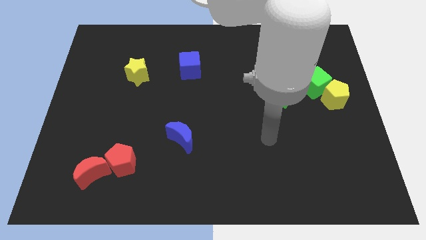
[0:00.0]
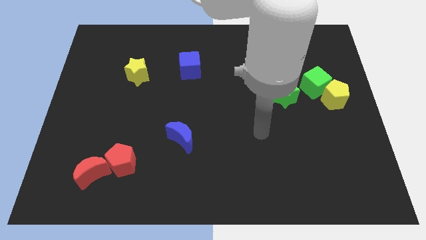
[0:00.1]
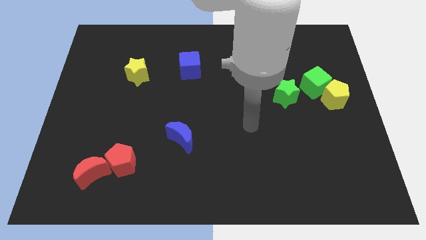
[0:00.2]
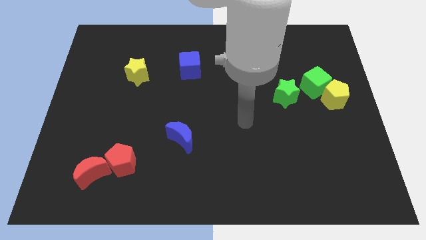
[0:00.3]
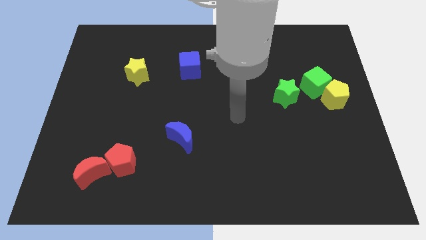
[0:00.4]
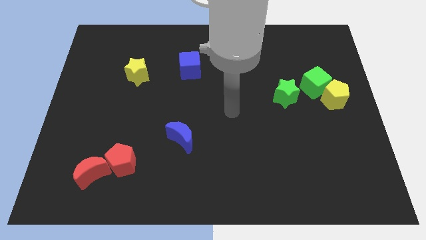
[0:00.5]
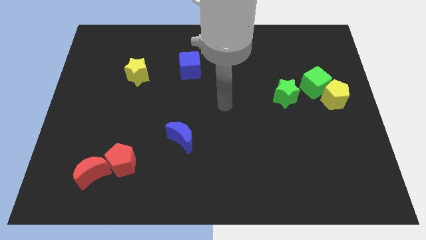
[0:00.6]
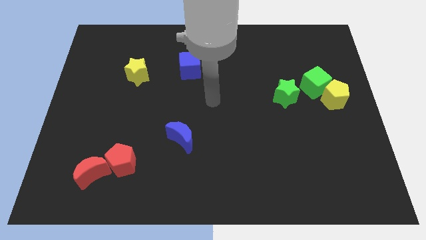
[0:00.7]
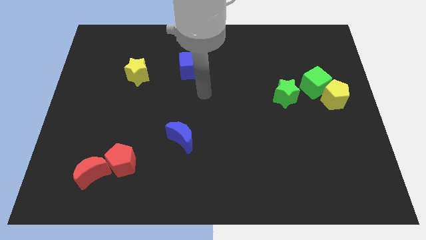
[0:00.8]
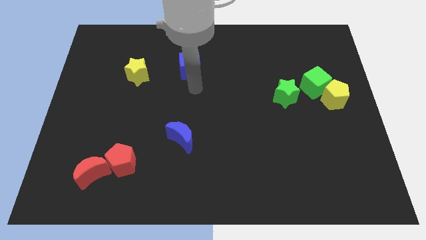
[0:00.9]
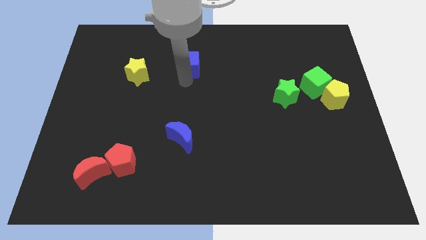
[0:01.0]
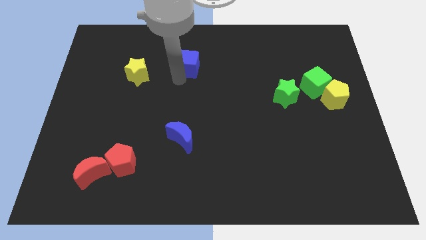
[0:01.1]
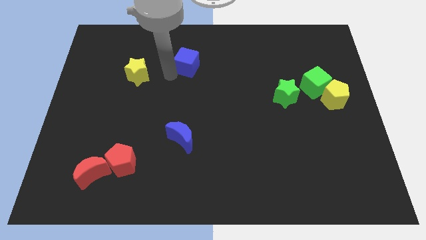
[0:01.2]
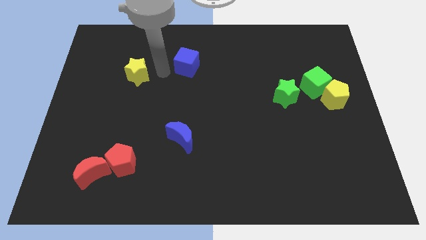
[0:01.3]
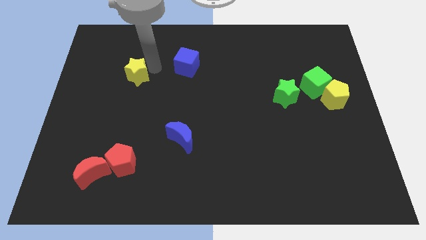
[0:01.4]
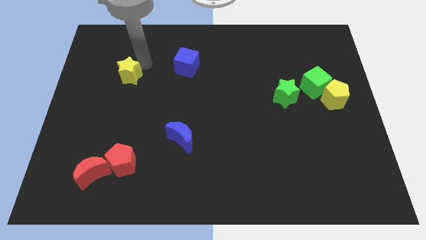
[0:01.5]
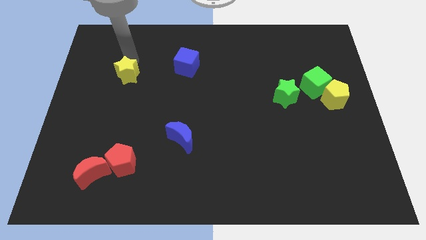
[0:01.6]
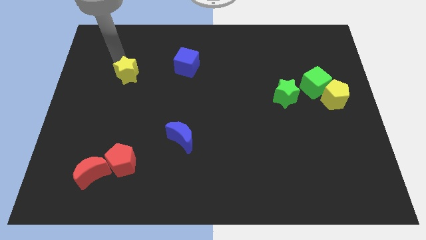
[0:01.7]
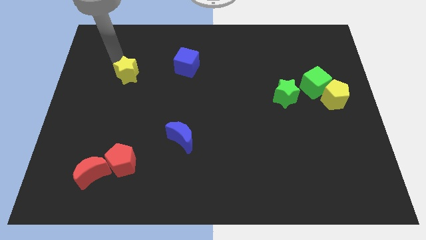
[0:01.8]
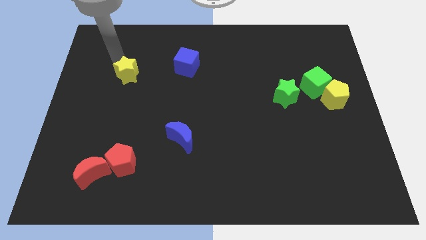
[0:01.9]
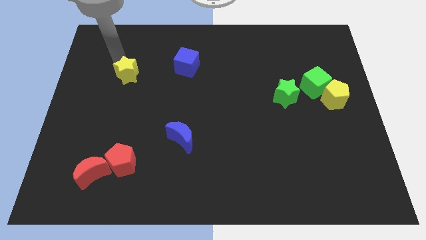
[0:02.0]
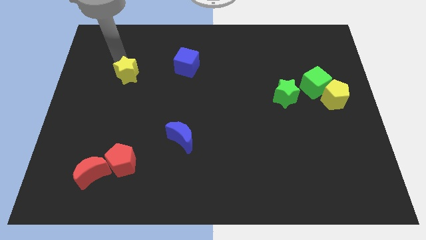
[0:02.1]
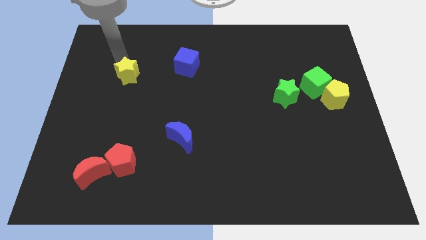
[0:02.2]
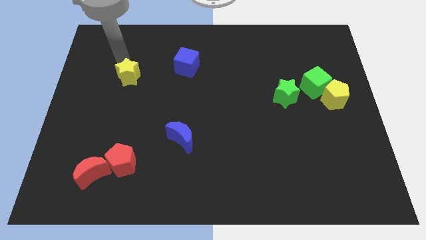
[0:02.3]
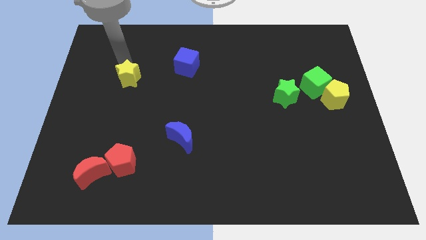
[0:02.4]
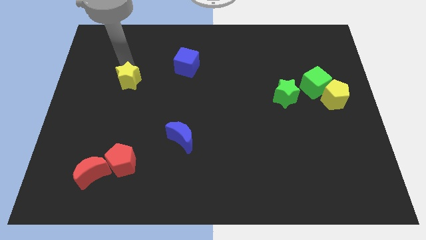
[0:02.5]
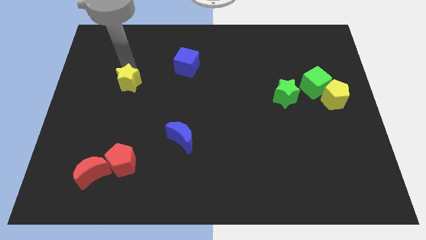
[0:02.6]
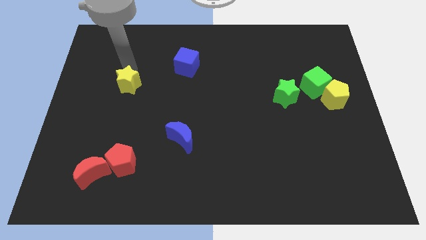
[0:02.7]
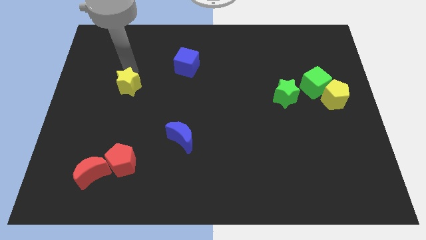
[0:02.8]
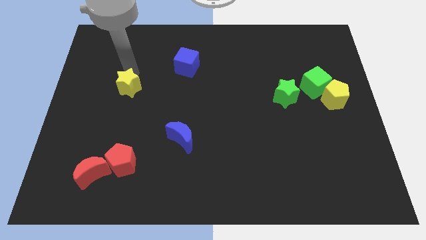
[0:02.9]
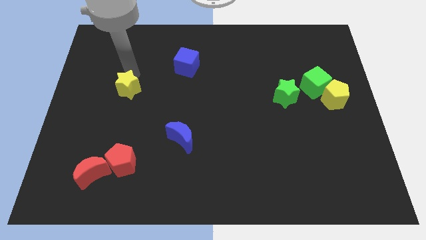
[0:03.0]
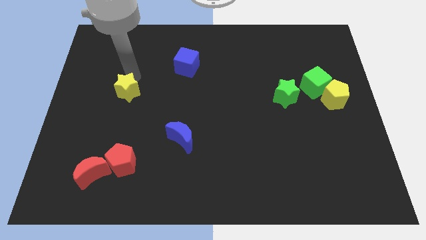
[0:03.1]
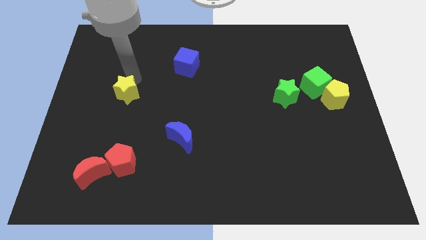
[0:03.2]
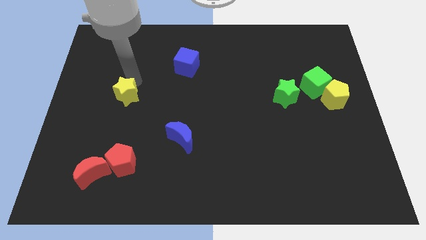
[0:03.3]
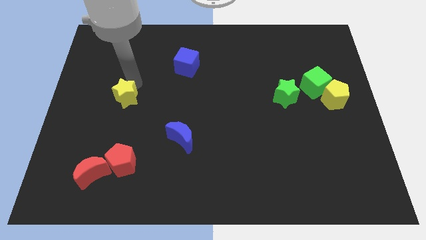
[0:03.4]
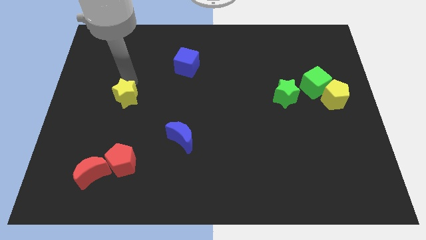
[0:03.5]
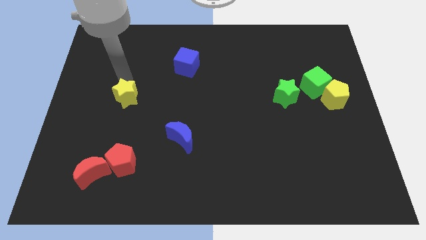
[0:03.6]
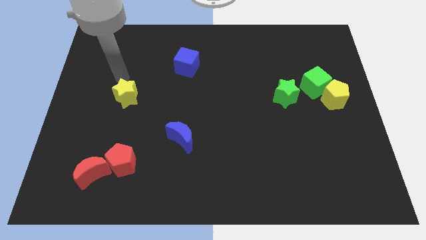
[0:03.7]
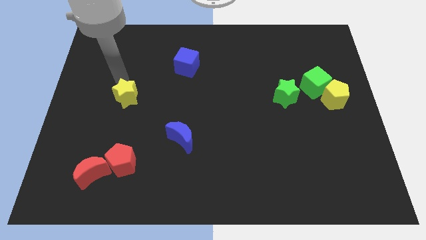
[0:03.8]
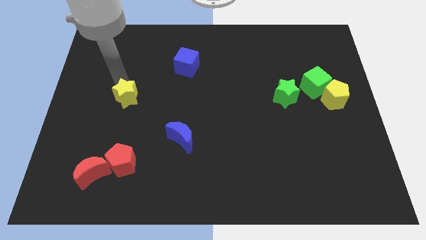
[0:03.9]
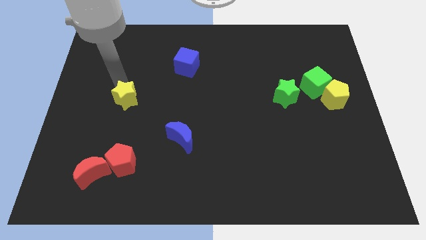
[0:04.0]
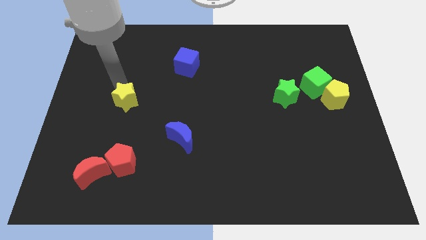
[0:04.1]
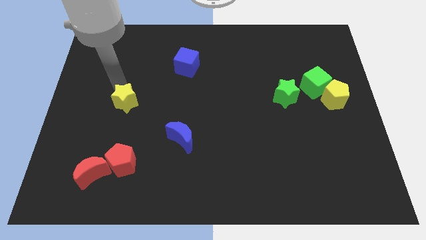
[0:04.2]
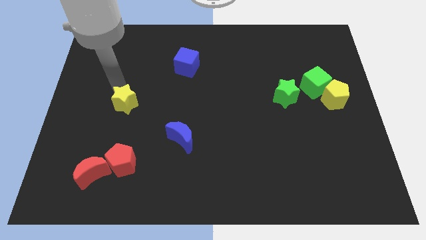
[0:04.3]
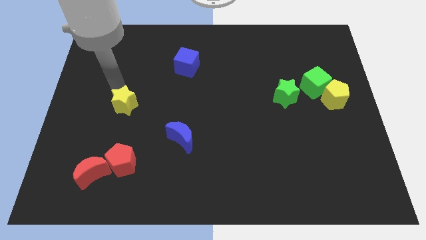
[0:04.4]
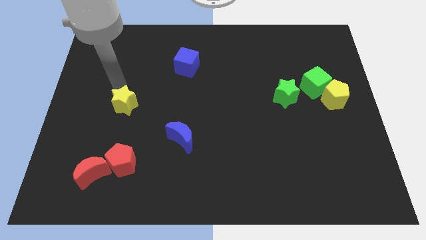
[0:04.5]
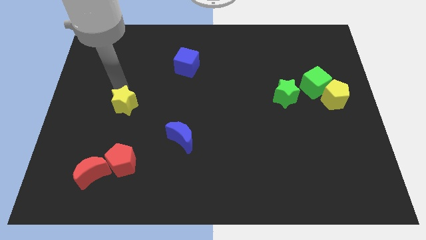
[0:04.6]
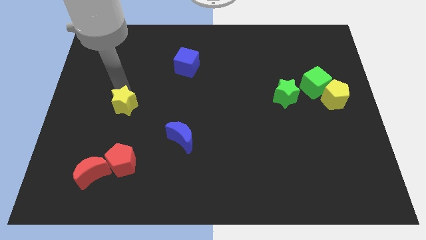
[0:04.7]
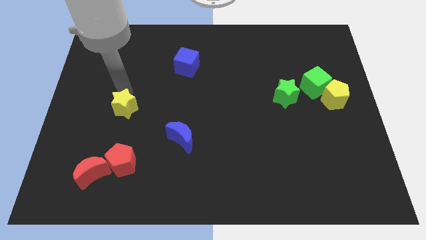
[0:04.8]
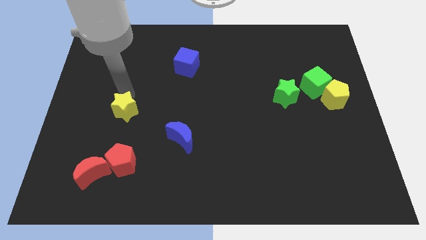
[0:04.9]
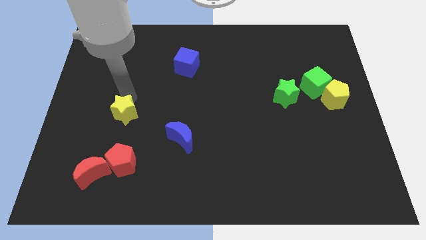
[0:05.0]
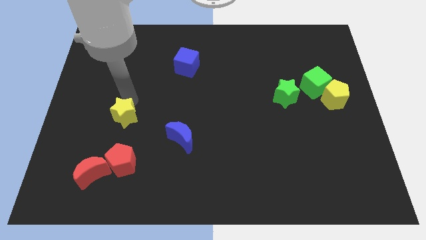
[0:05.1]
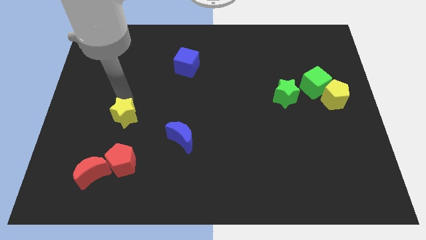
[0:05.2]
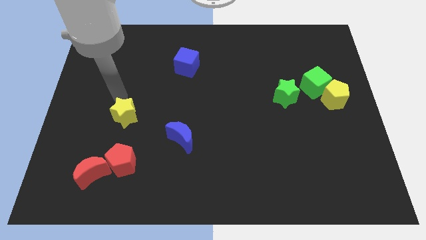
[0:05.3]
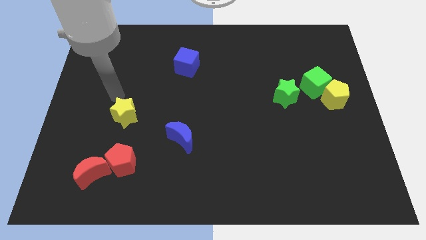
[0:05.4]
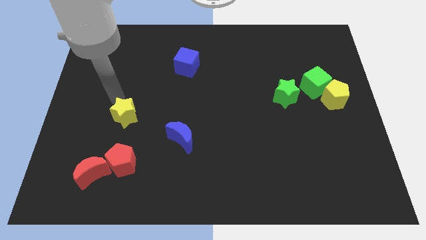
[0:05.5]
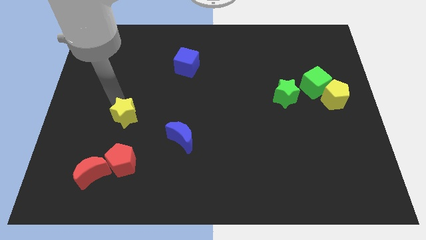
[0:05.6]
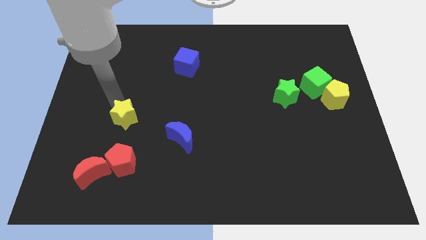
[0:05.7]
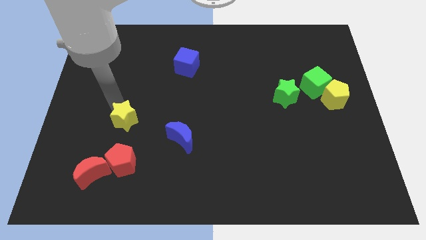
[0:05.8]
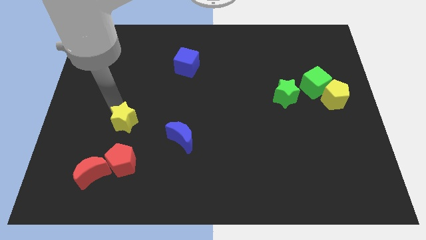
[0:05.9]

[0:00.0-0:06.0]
put the yellow star left of the blue moon

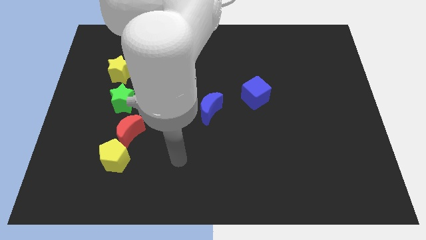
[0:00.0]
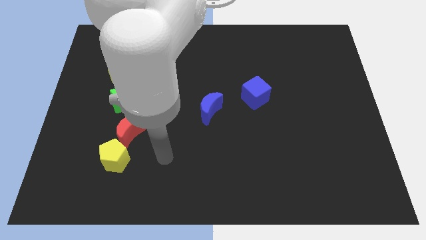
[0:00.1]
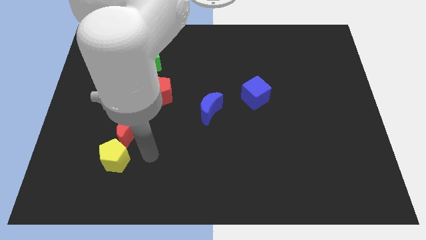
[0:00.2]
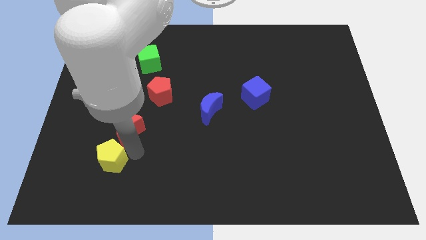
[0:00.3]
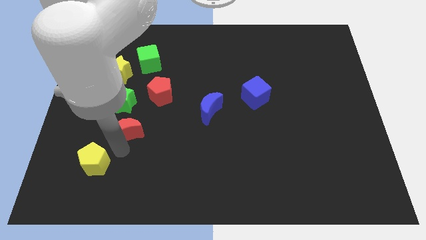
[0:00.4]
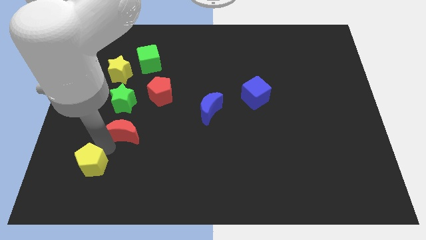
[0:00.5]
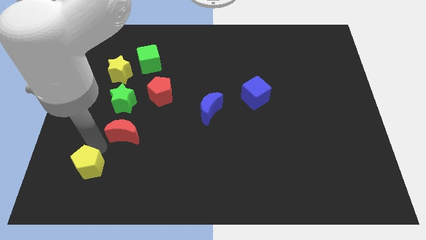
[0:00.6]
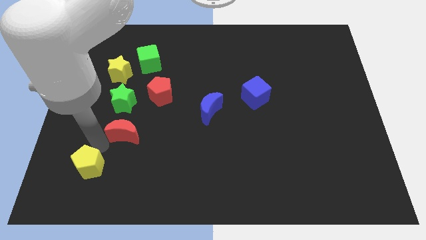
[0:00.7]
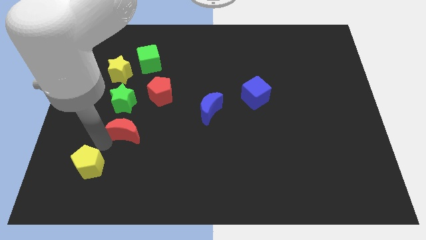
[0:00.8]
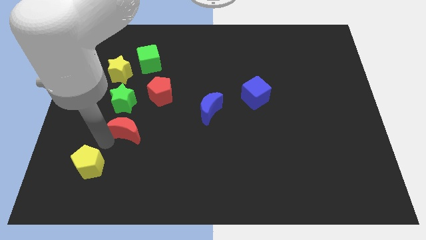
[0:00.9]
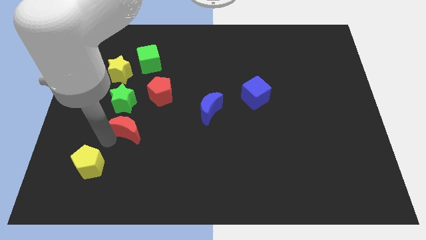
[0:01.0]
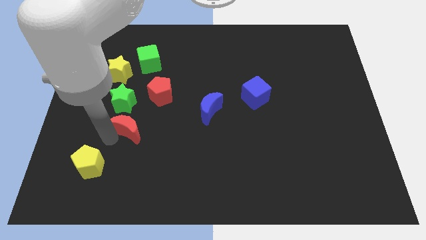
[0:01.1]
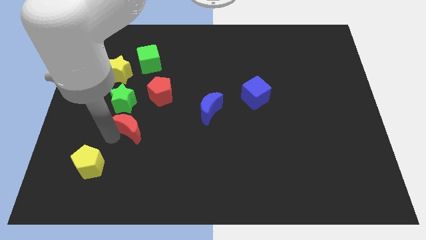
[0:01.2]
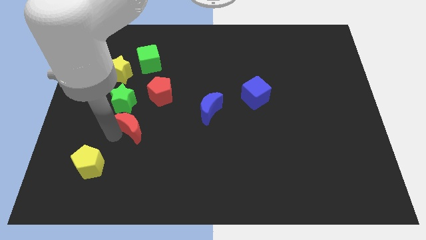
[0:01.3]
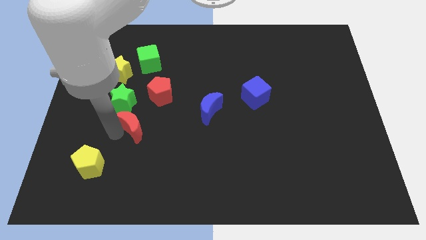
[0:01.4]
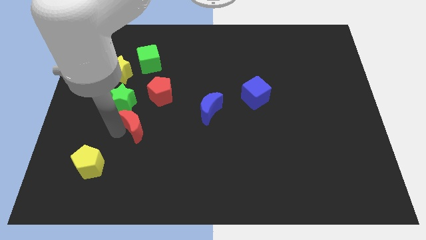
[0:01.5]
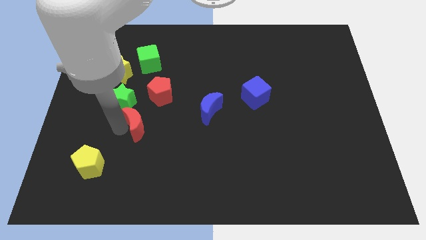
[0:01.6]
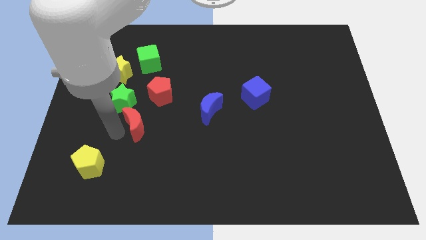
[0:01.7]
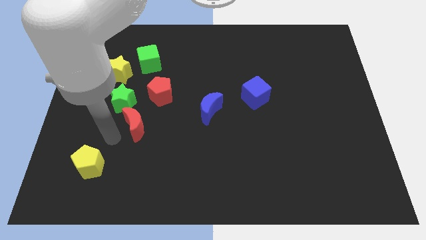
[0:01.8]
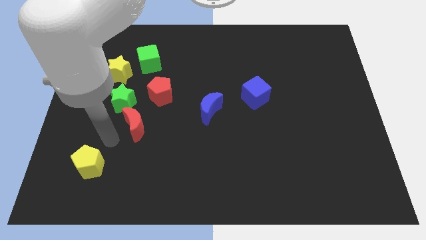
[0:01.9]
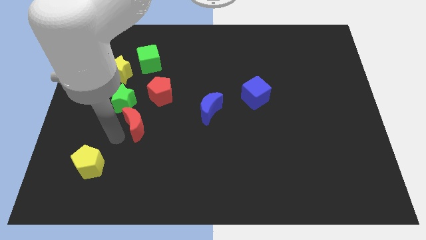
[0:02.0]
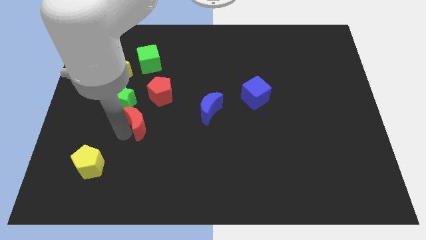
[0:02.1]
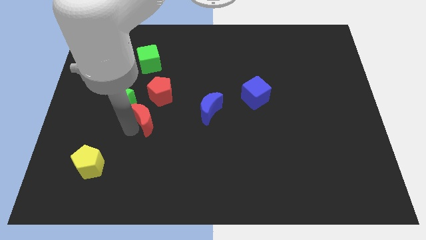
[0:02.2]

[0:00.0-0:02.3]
push the red moon left of the blue moon
